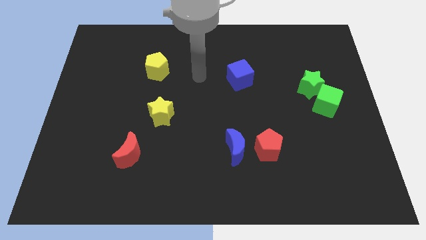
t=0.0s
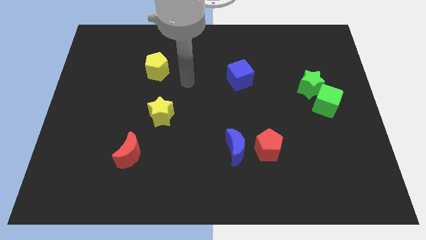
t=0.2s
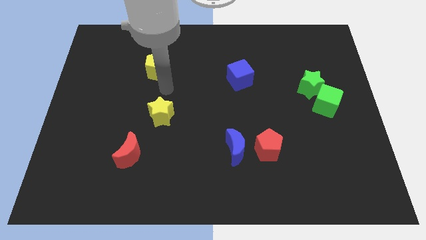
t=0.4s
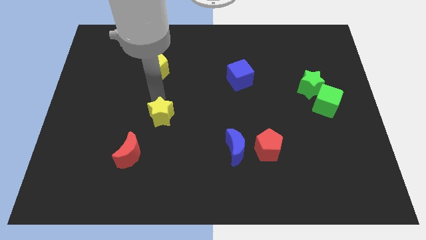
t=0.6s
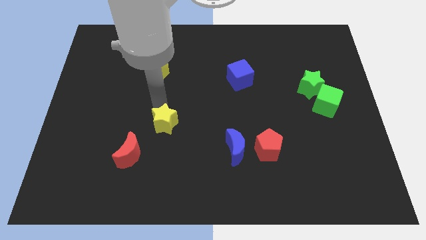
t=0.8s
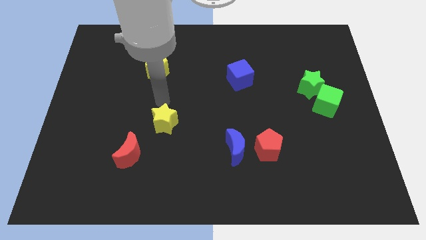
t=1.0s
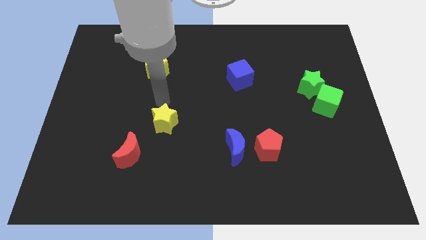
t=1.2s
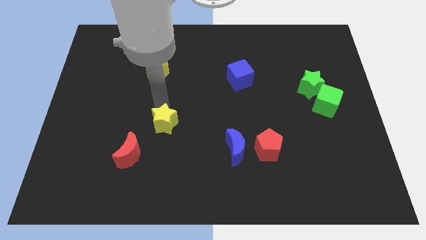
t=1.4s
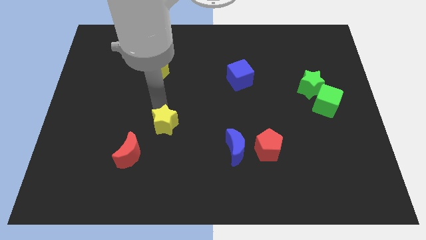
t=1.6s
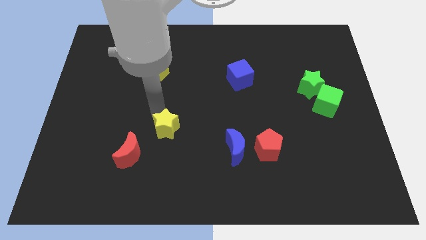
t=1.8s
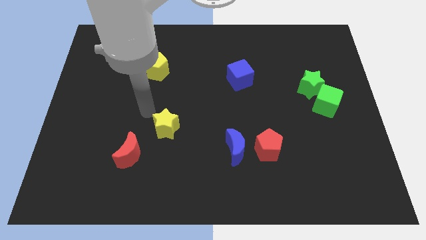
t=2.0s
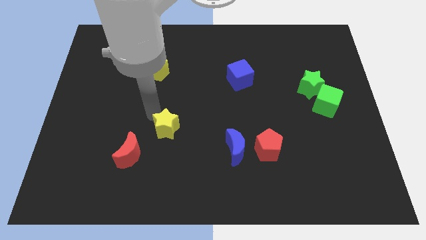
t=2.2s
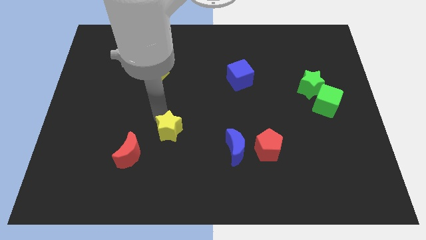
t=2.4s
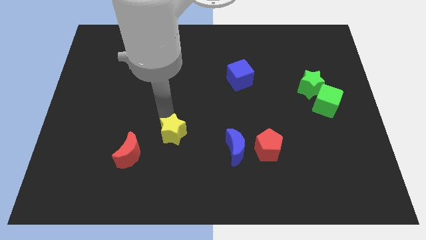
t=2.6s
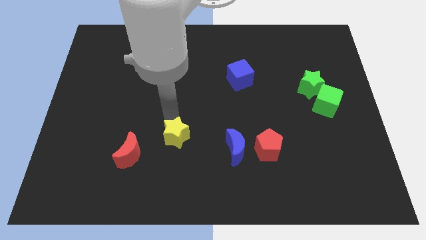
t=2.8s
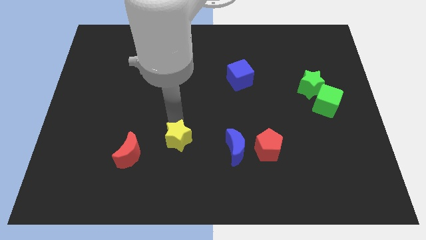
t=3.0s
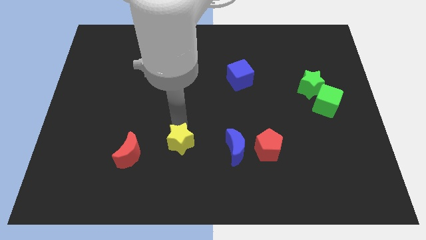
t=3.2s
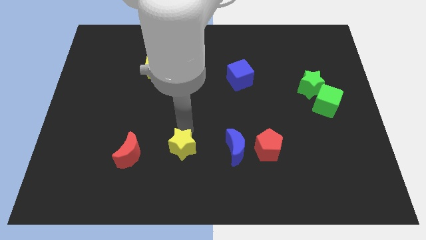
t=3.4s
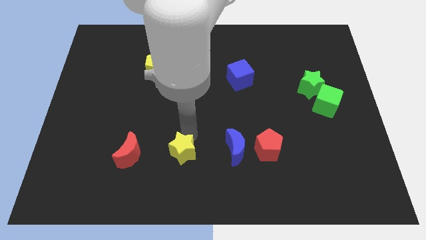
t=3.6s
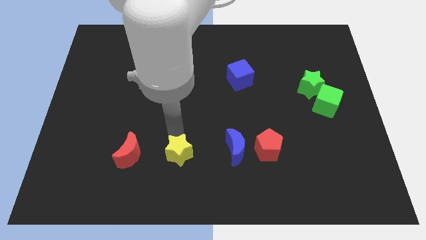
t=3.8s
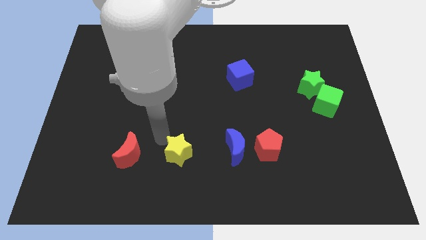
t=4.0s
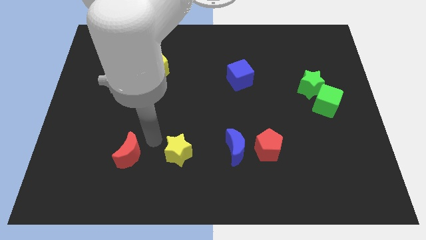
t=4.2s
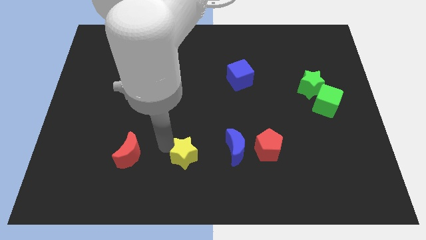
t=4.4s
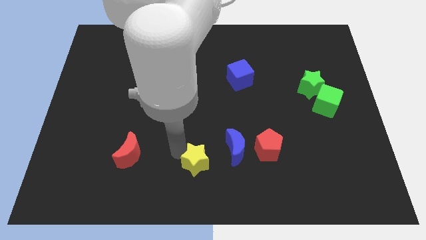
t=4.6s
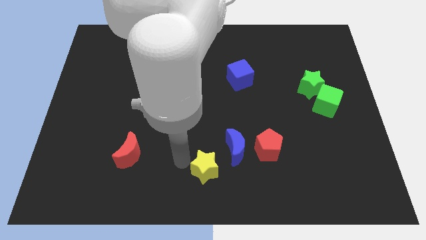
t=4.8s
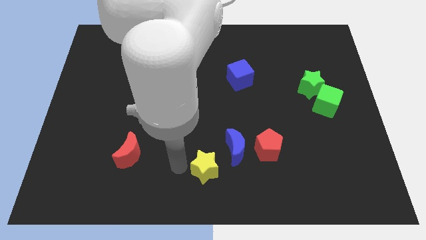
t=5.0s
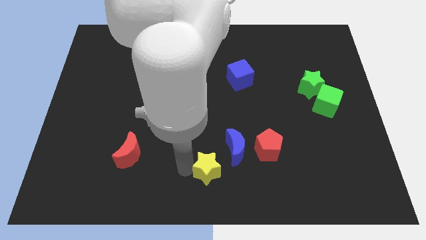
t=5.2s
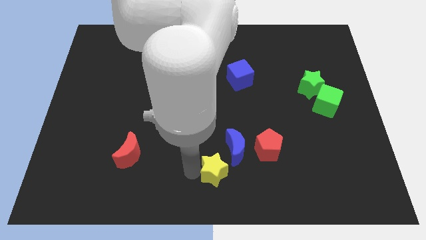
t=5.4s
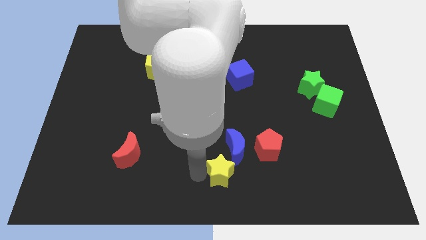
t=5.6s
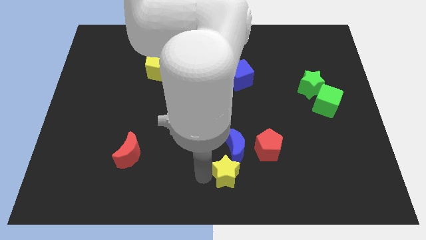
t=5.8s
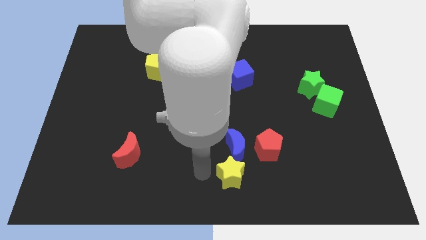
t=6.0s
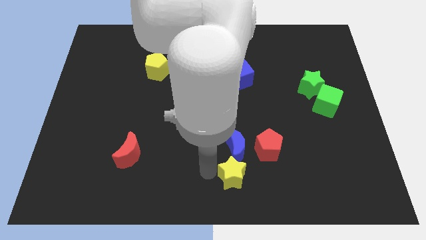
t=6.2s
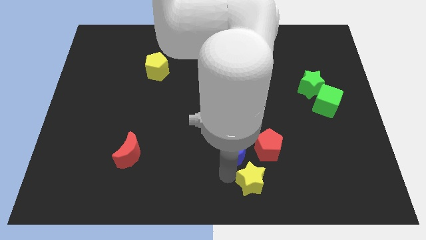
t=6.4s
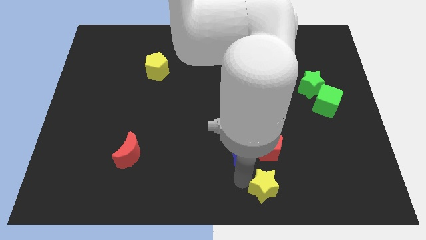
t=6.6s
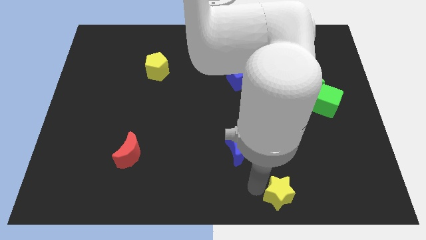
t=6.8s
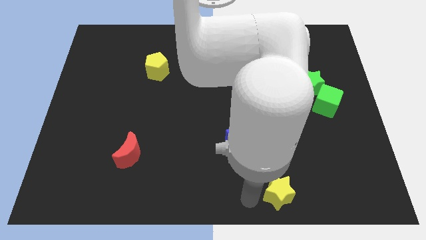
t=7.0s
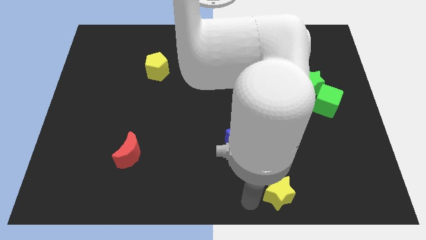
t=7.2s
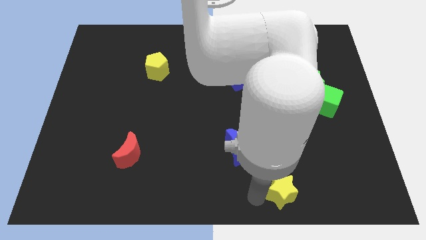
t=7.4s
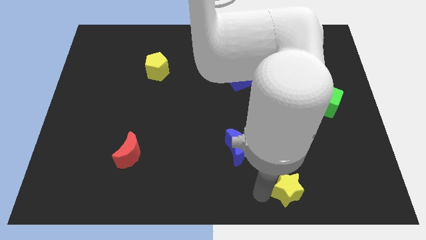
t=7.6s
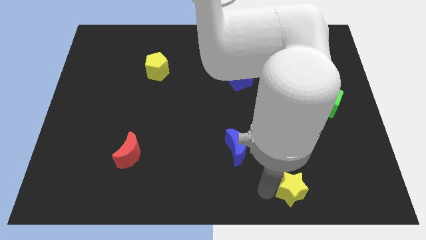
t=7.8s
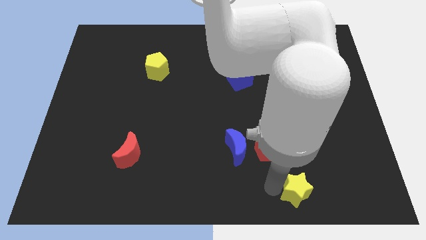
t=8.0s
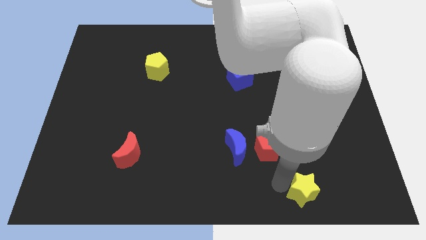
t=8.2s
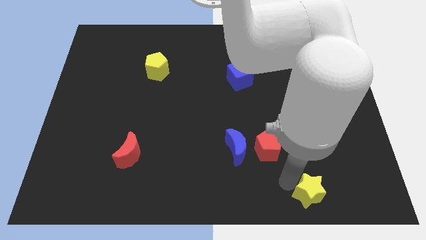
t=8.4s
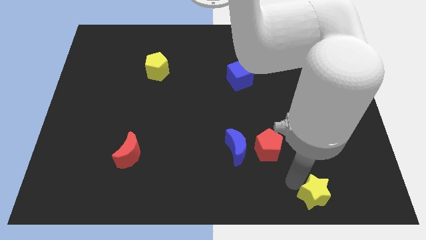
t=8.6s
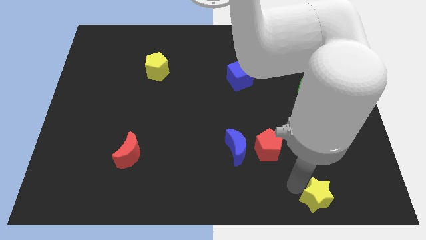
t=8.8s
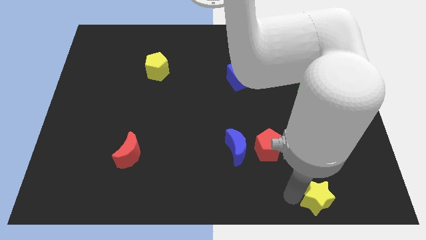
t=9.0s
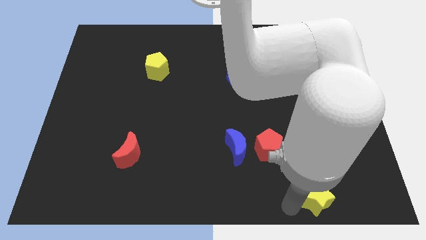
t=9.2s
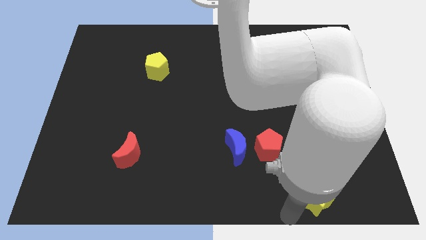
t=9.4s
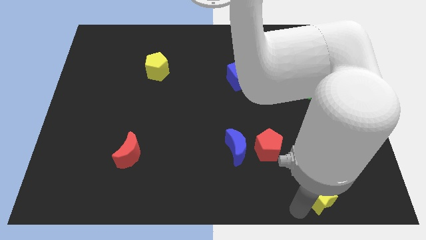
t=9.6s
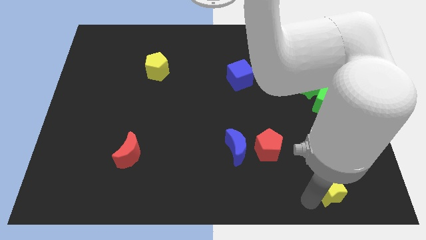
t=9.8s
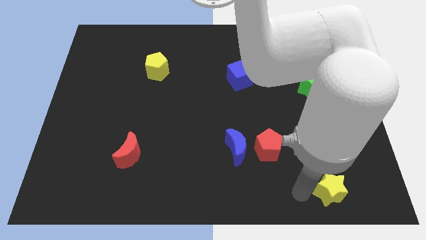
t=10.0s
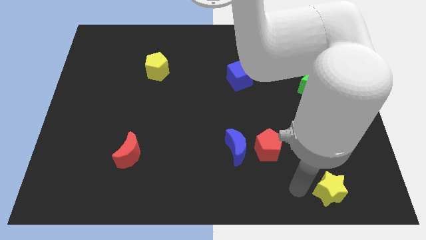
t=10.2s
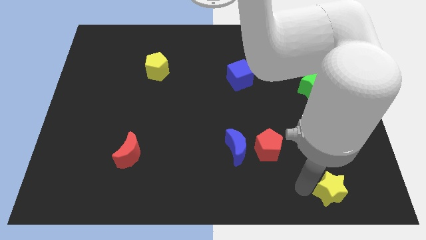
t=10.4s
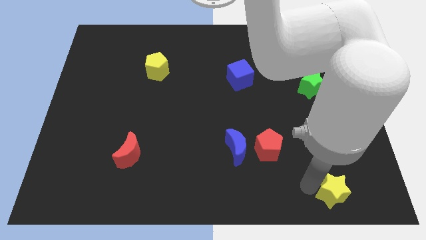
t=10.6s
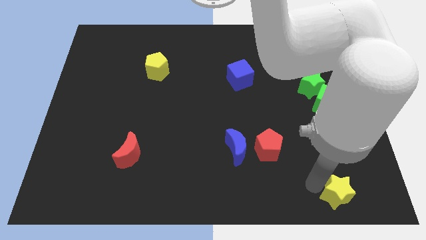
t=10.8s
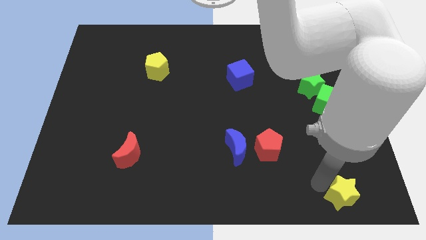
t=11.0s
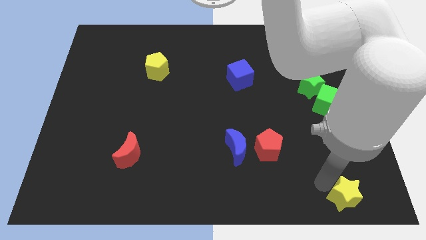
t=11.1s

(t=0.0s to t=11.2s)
move the yellow star to the bottom right of the board

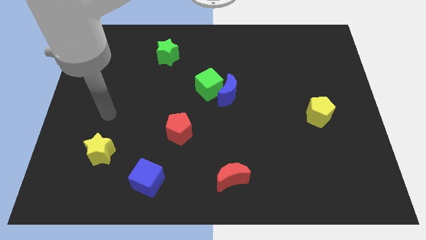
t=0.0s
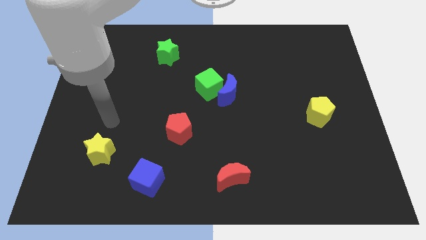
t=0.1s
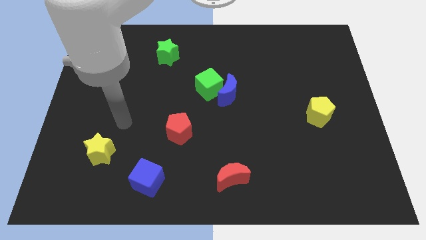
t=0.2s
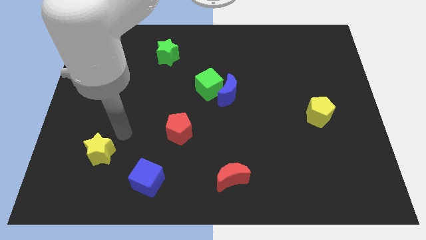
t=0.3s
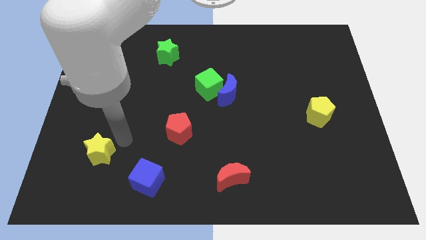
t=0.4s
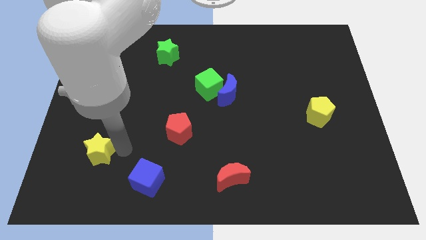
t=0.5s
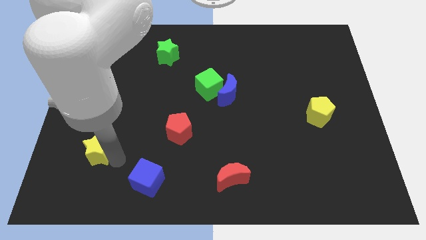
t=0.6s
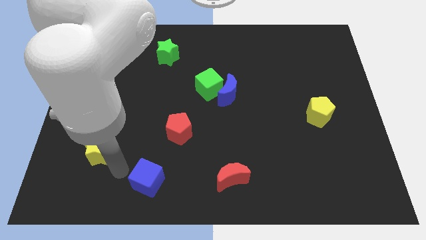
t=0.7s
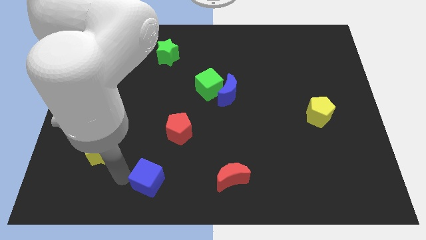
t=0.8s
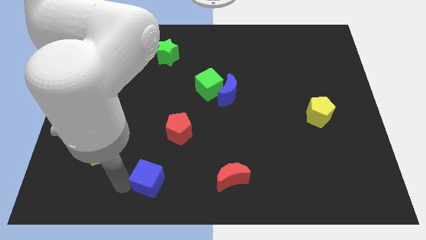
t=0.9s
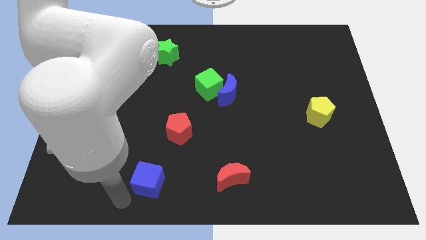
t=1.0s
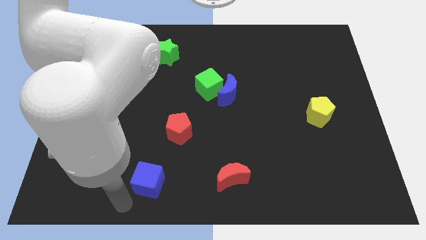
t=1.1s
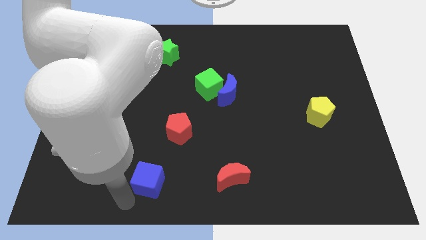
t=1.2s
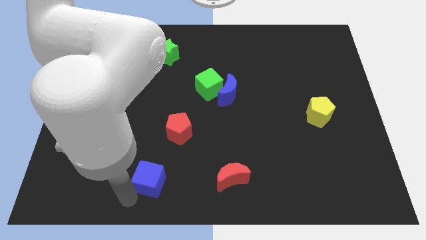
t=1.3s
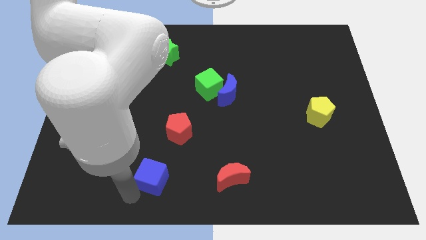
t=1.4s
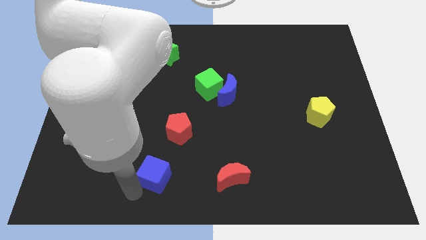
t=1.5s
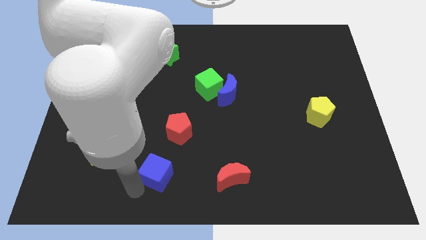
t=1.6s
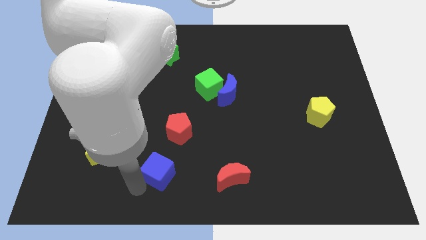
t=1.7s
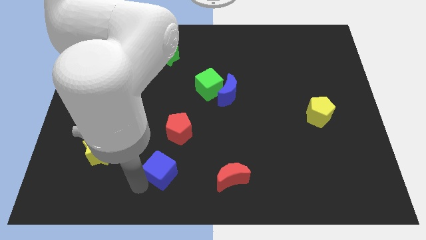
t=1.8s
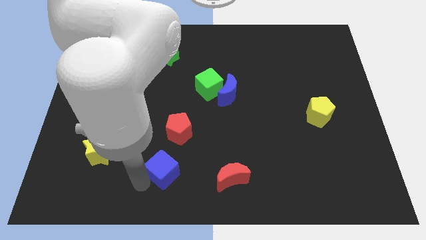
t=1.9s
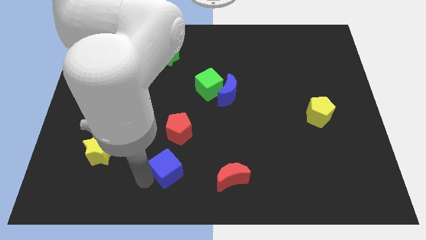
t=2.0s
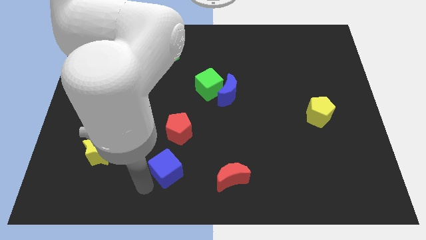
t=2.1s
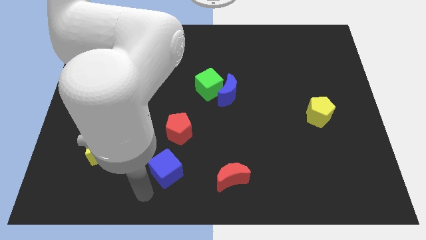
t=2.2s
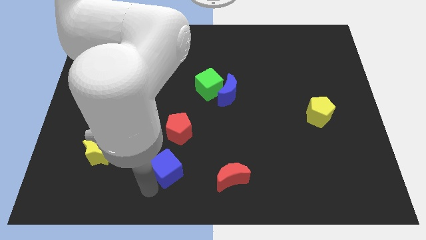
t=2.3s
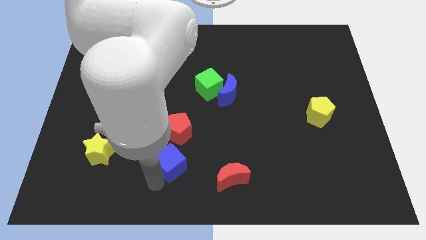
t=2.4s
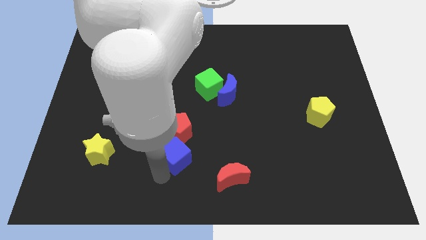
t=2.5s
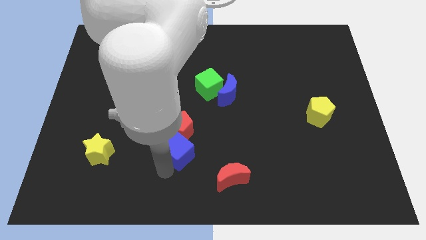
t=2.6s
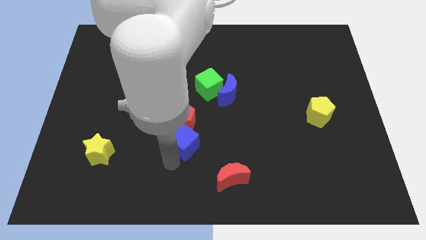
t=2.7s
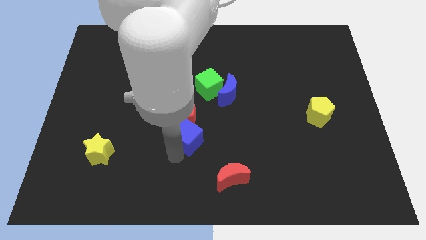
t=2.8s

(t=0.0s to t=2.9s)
slide the blue cube to the center of the board
